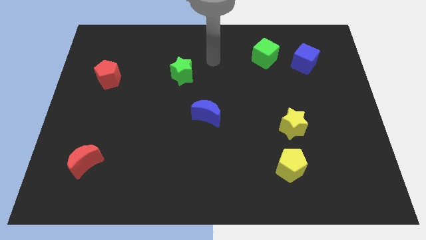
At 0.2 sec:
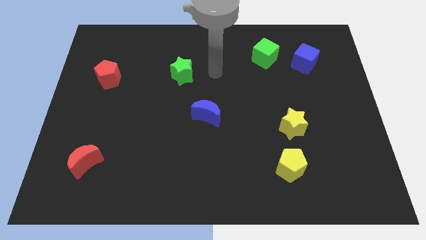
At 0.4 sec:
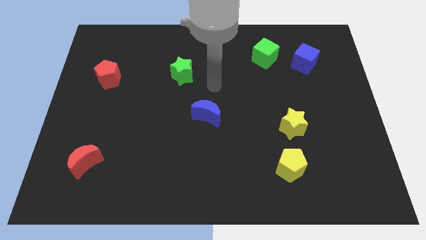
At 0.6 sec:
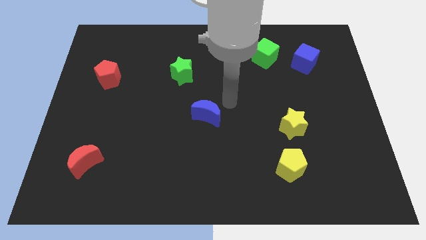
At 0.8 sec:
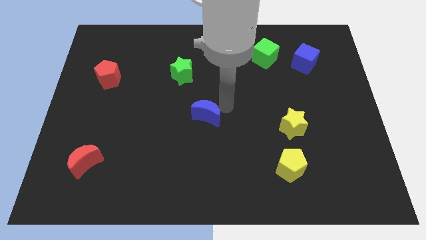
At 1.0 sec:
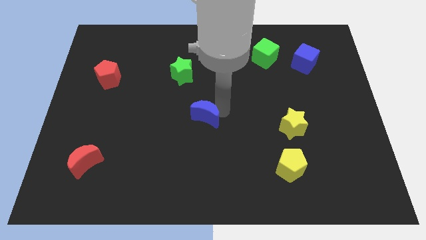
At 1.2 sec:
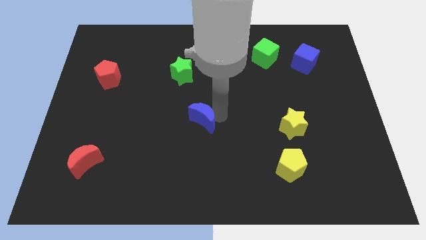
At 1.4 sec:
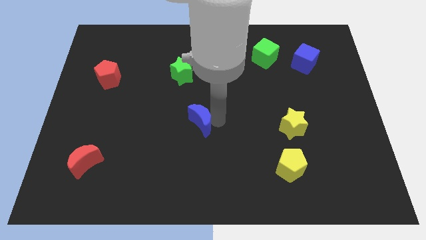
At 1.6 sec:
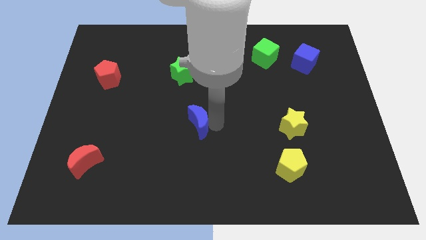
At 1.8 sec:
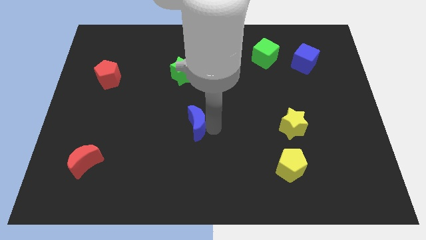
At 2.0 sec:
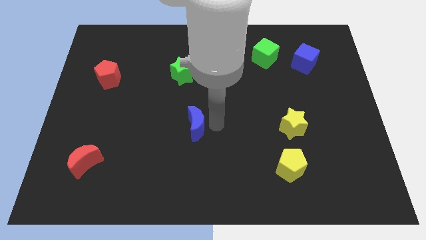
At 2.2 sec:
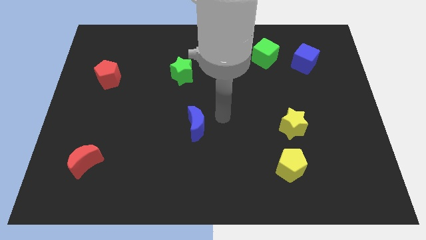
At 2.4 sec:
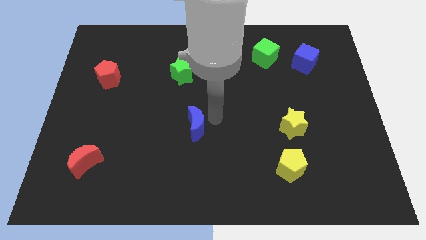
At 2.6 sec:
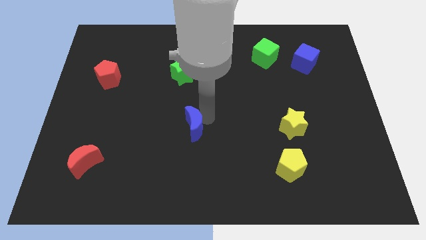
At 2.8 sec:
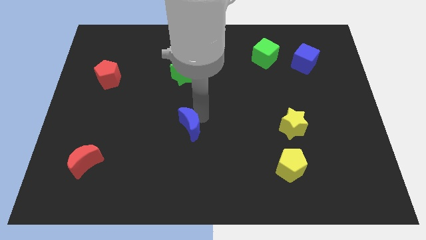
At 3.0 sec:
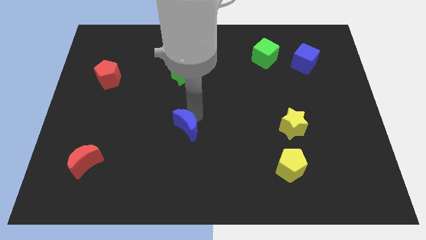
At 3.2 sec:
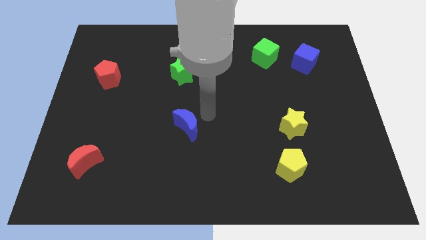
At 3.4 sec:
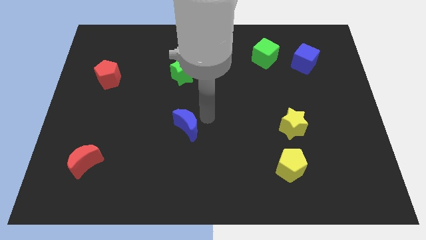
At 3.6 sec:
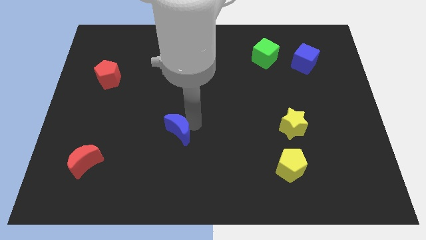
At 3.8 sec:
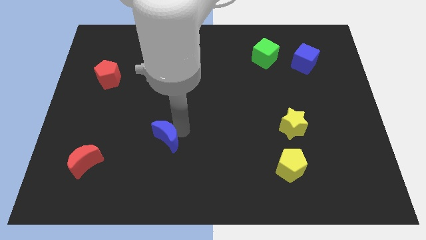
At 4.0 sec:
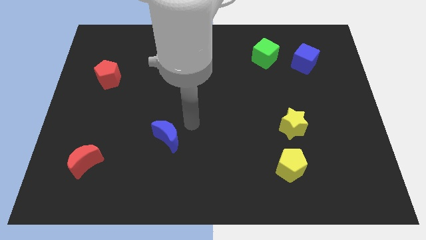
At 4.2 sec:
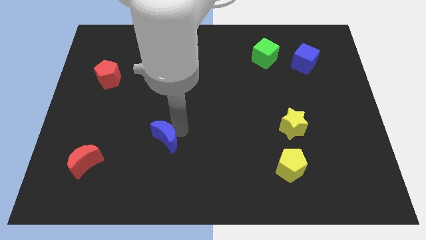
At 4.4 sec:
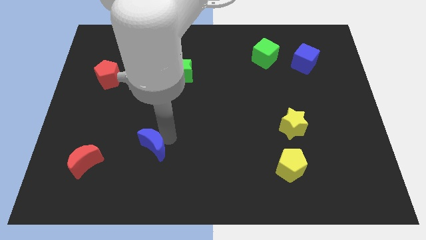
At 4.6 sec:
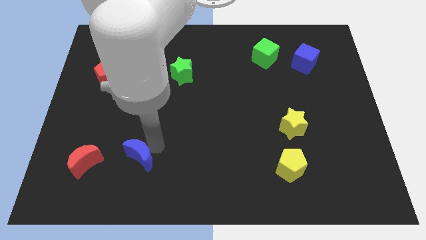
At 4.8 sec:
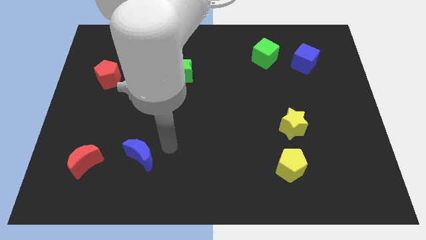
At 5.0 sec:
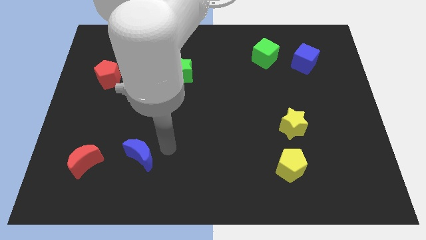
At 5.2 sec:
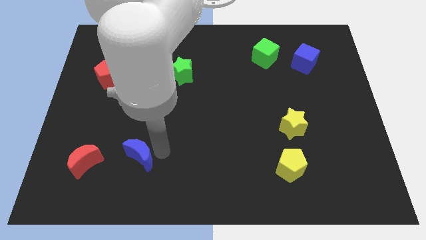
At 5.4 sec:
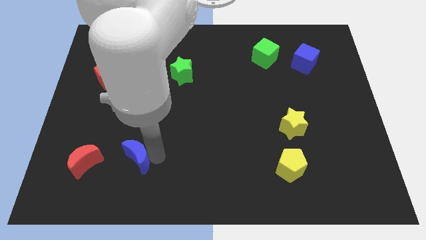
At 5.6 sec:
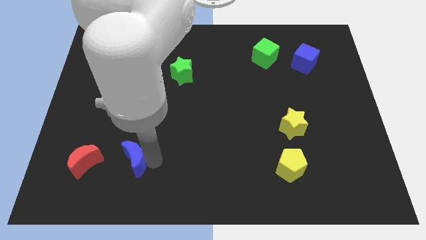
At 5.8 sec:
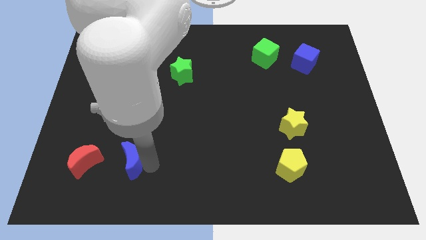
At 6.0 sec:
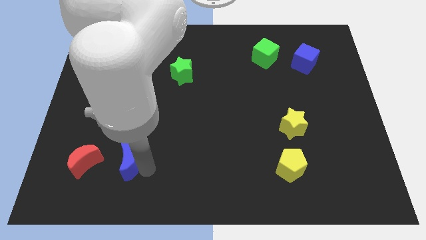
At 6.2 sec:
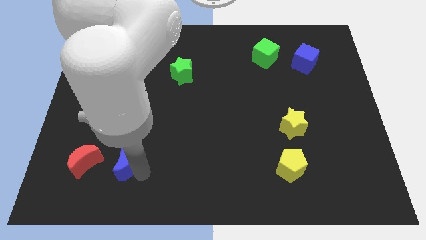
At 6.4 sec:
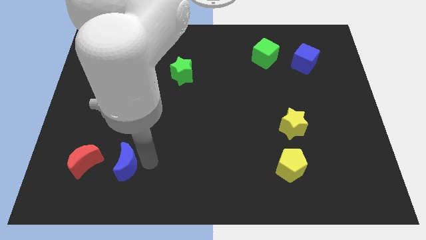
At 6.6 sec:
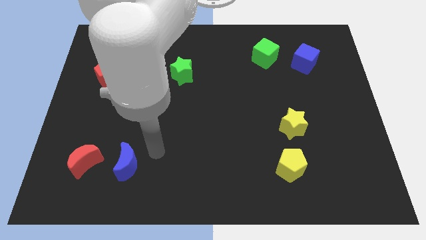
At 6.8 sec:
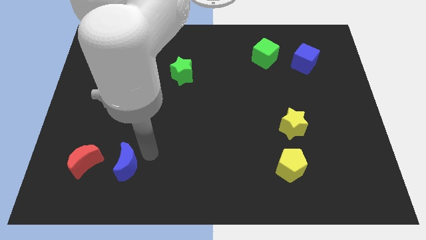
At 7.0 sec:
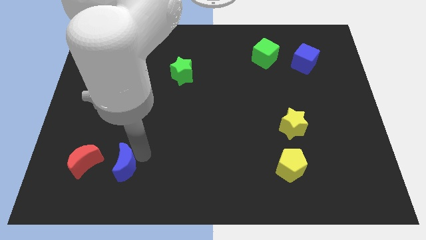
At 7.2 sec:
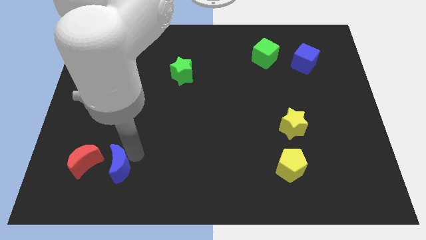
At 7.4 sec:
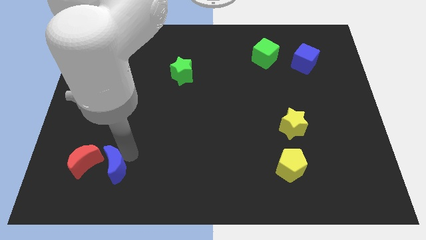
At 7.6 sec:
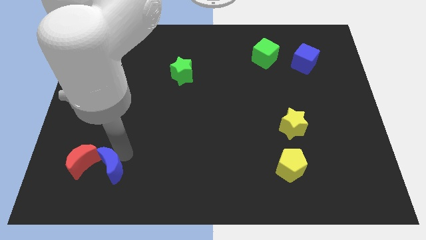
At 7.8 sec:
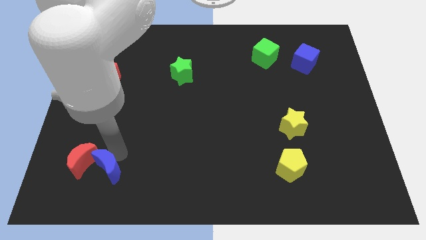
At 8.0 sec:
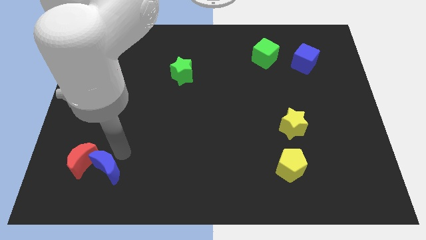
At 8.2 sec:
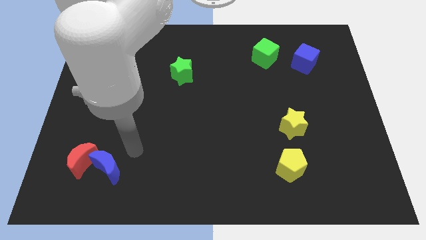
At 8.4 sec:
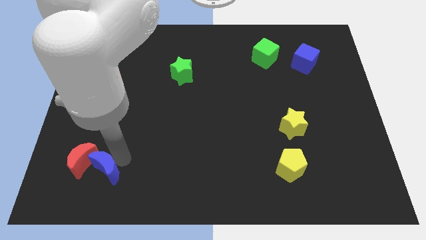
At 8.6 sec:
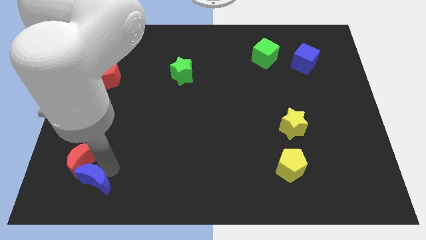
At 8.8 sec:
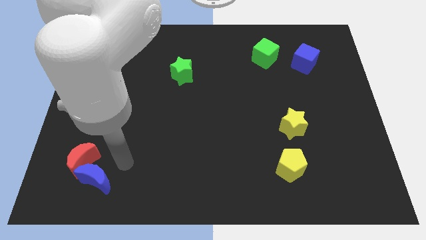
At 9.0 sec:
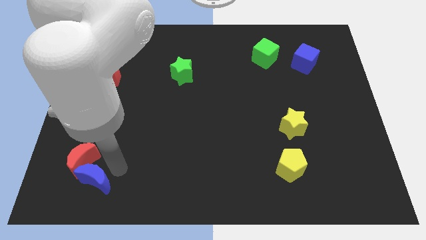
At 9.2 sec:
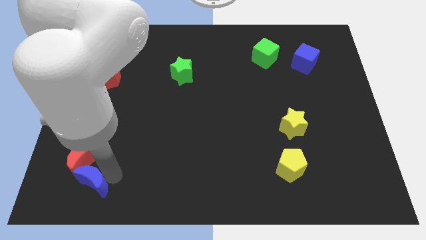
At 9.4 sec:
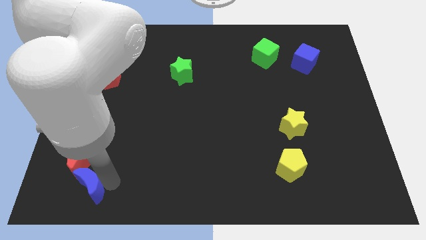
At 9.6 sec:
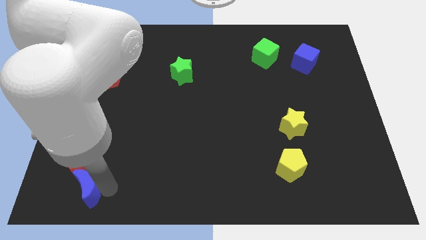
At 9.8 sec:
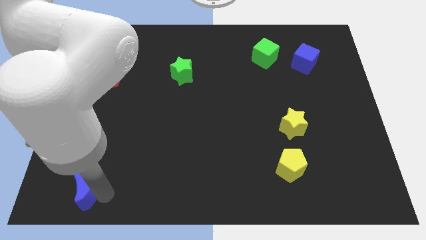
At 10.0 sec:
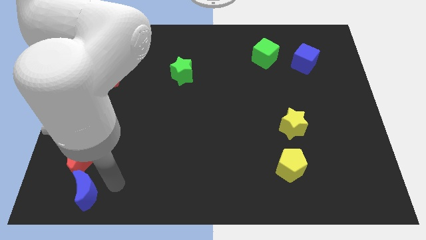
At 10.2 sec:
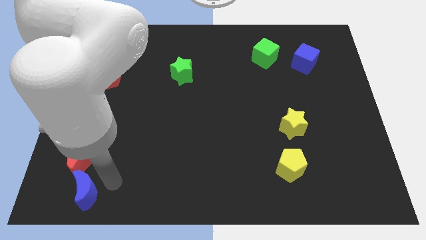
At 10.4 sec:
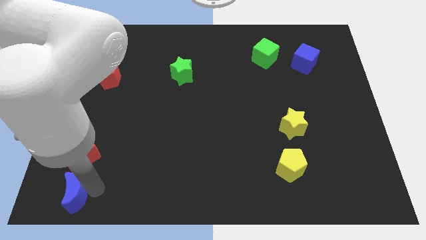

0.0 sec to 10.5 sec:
put the blue moon to the bottom left

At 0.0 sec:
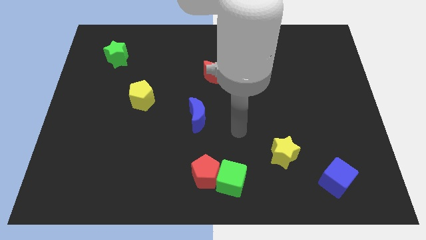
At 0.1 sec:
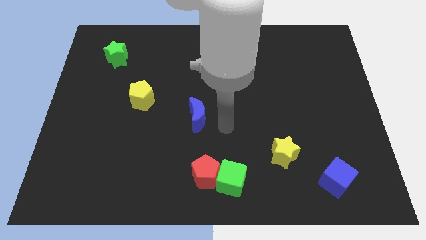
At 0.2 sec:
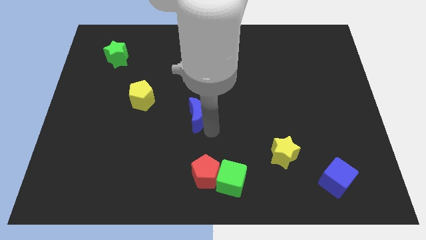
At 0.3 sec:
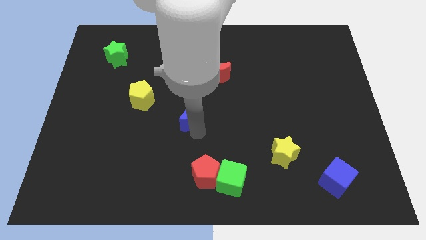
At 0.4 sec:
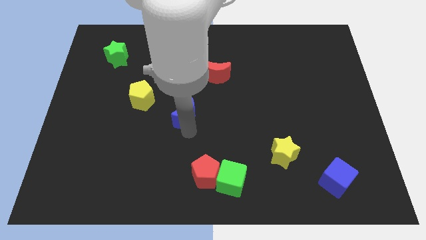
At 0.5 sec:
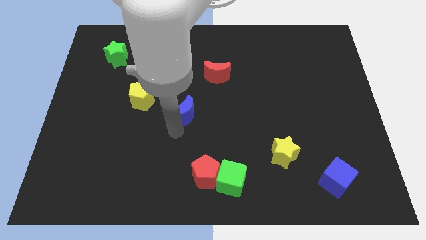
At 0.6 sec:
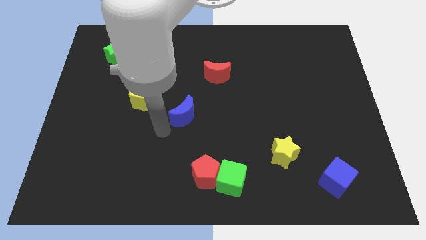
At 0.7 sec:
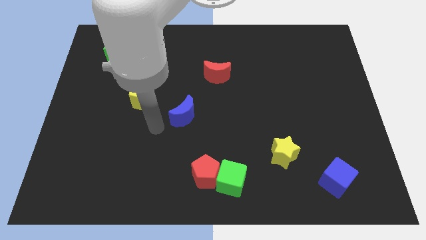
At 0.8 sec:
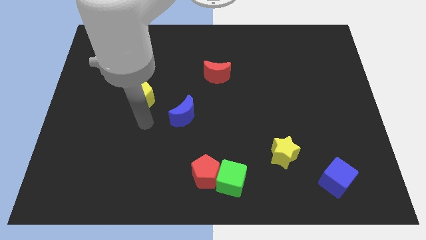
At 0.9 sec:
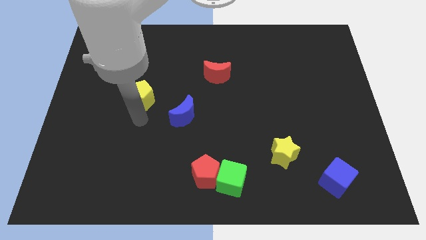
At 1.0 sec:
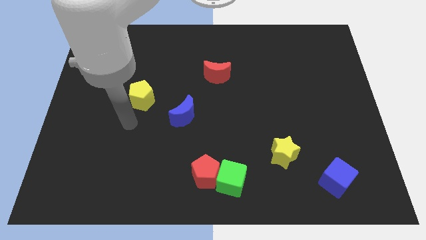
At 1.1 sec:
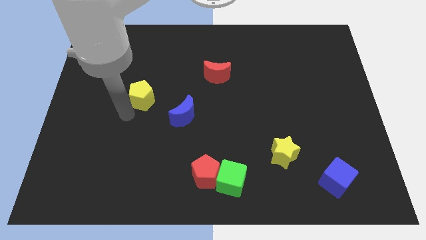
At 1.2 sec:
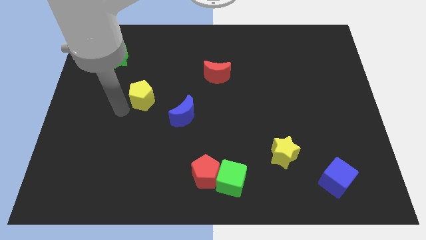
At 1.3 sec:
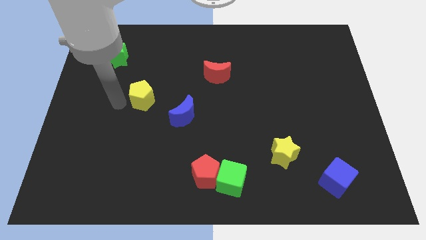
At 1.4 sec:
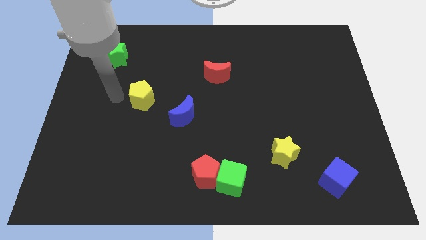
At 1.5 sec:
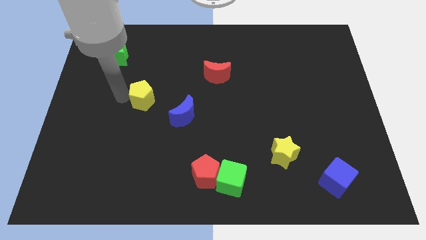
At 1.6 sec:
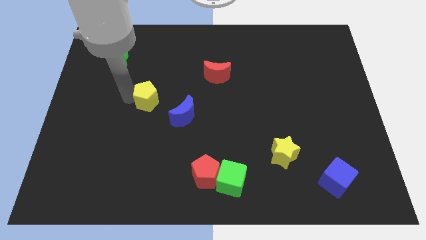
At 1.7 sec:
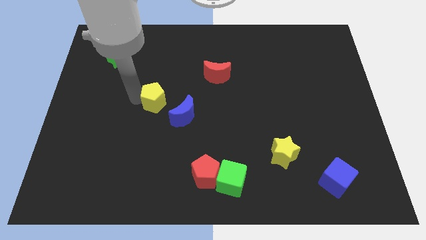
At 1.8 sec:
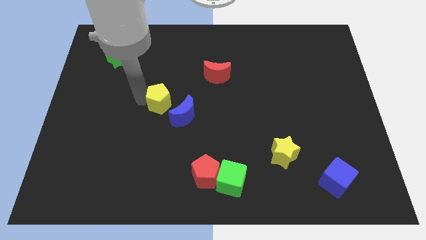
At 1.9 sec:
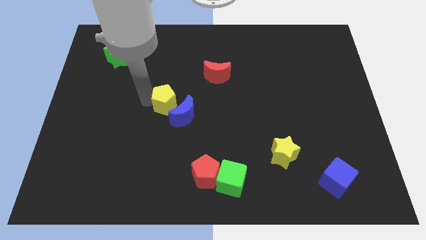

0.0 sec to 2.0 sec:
slide the yellow pentagon to the center
